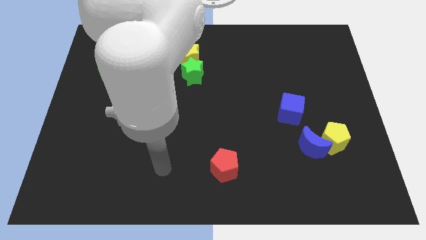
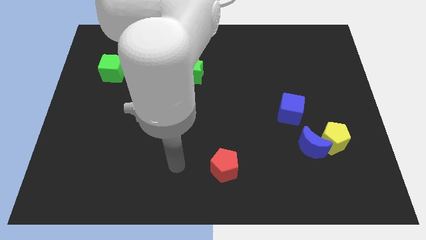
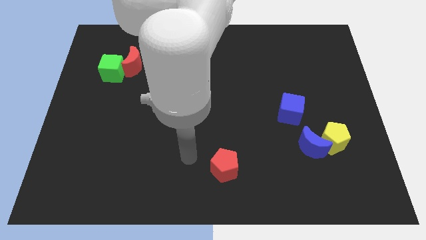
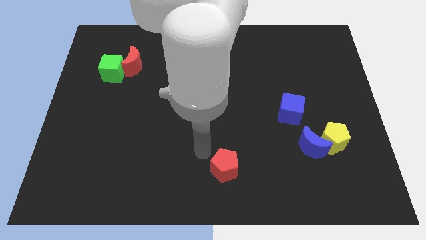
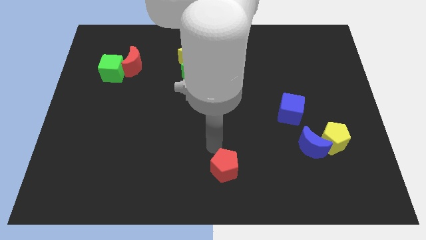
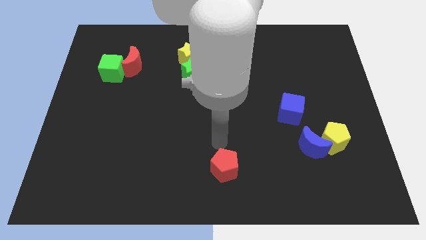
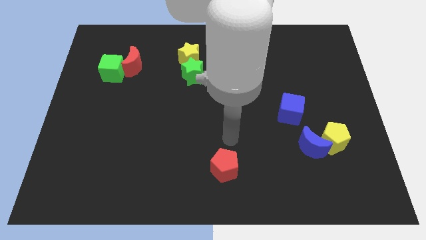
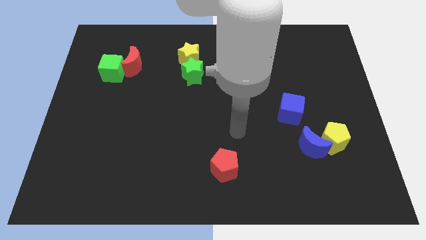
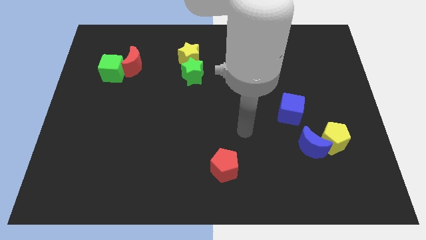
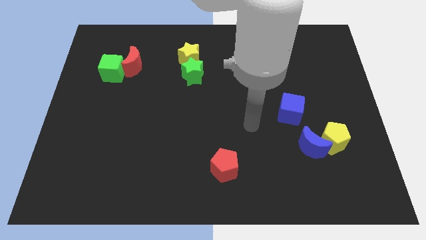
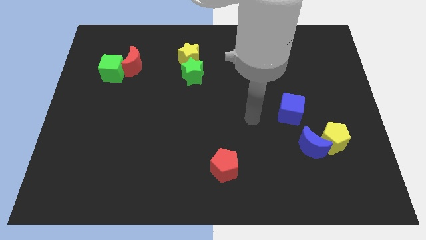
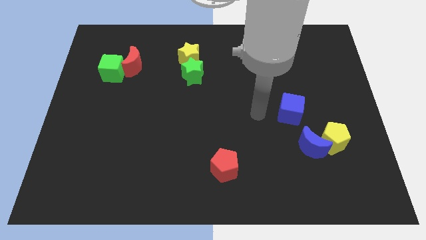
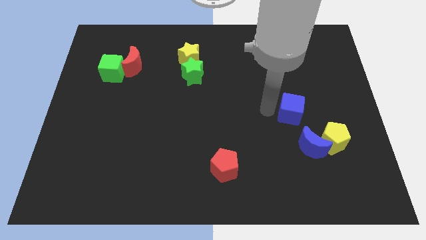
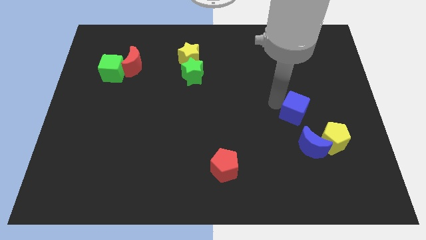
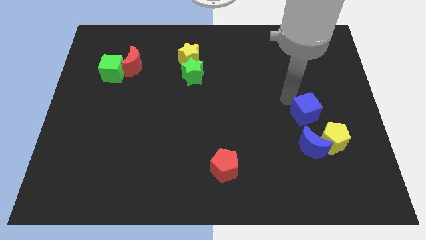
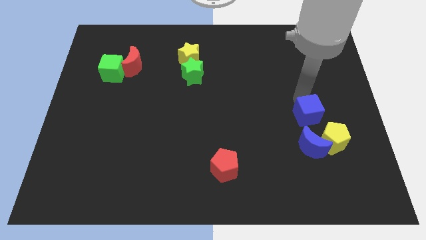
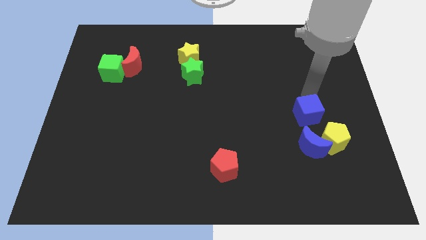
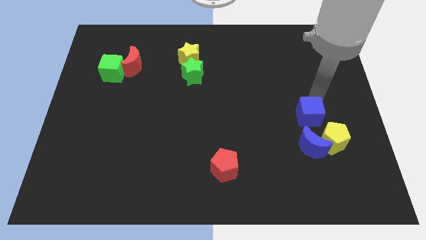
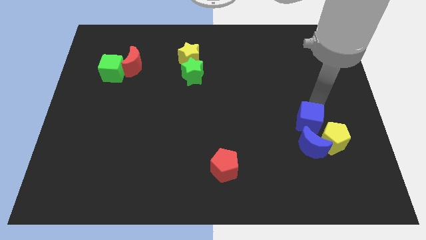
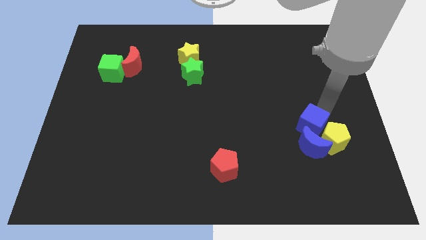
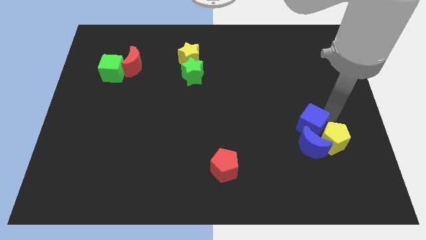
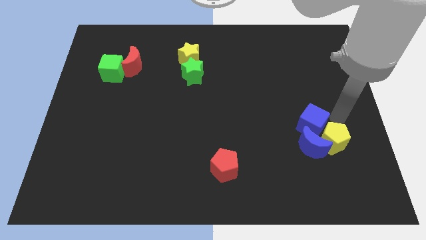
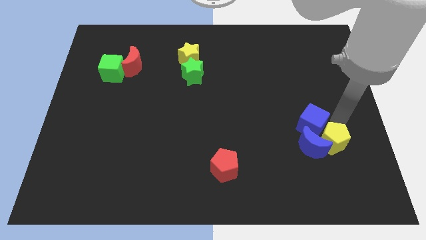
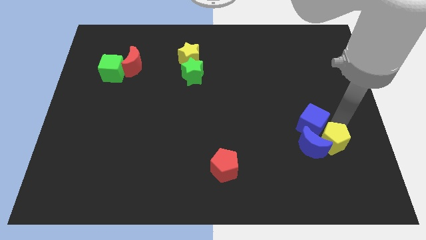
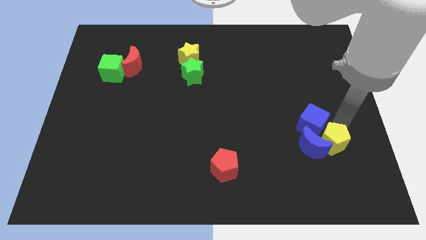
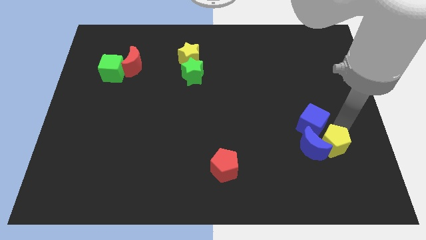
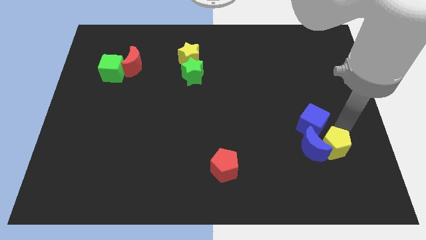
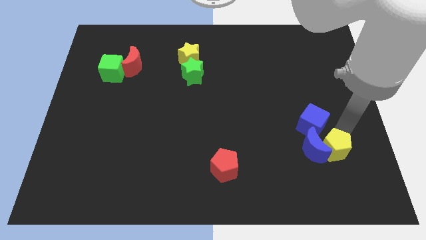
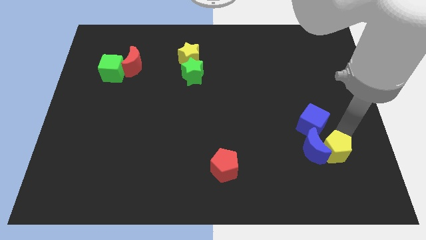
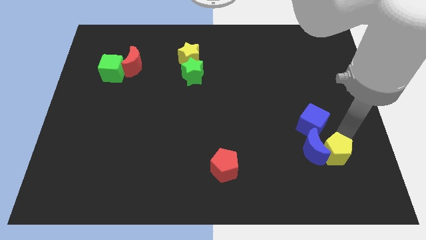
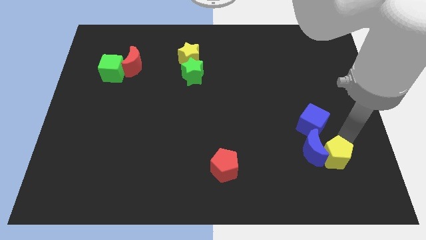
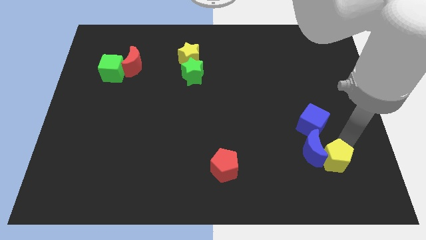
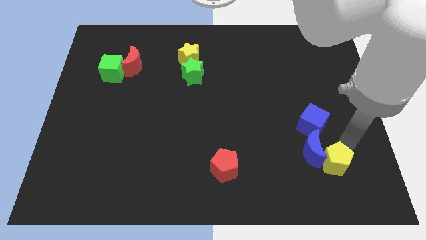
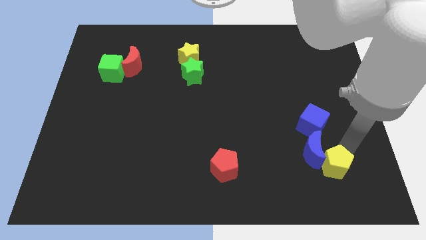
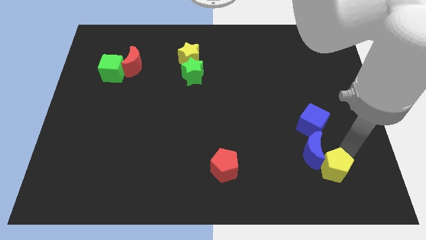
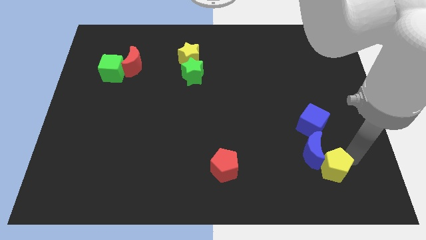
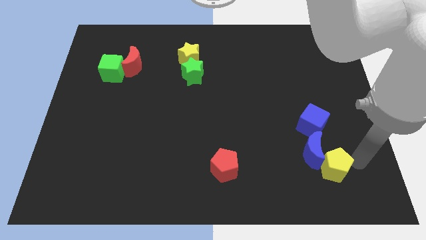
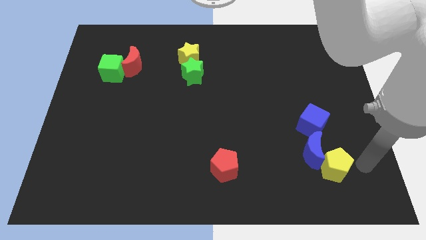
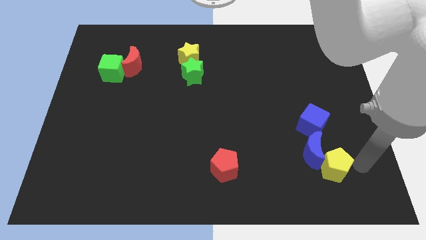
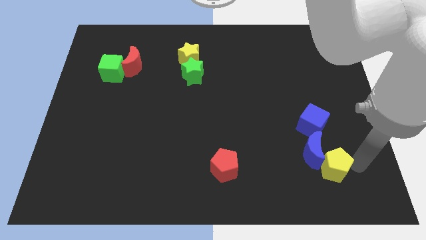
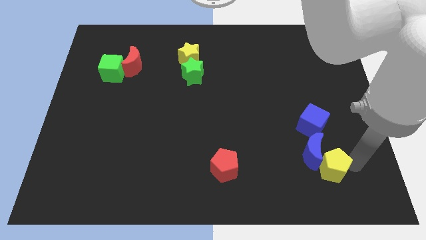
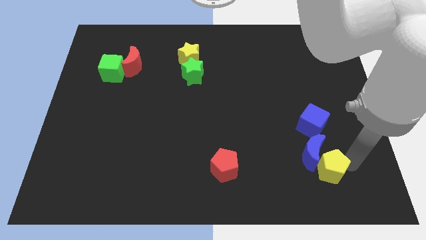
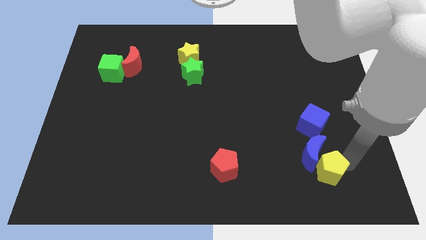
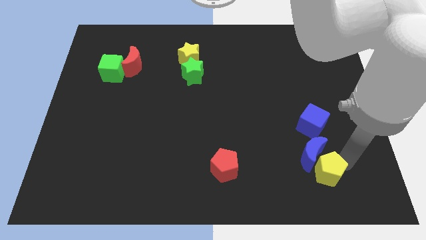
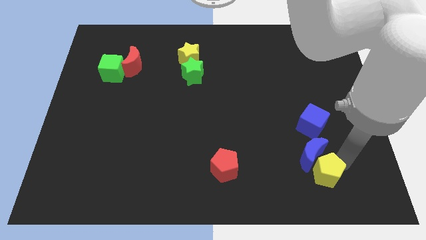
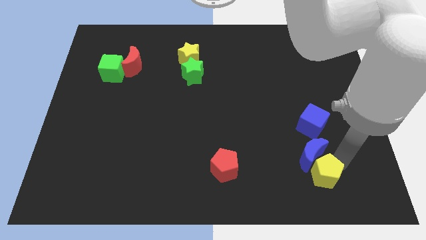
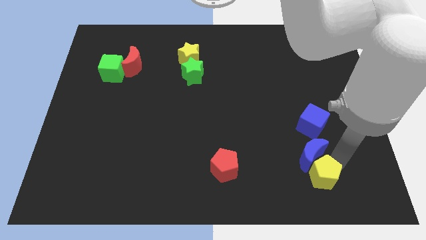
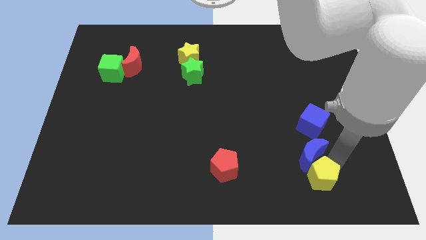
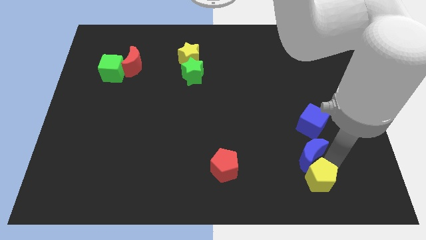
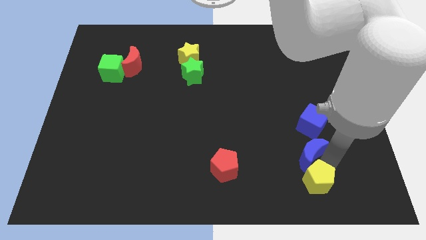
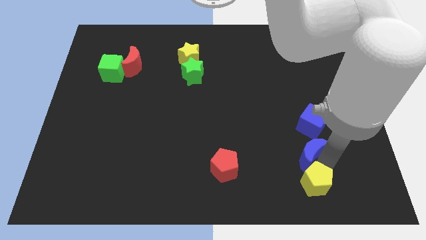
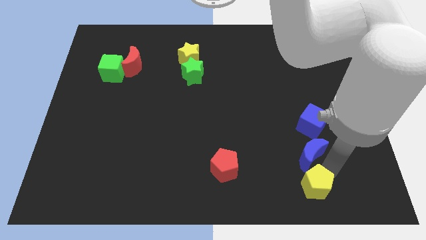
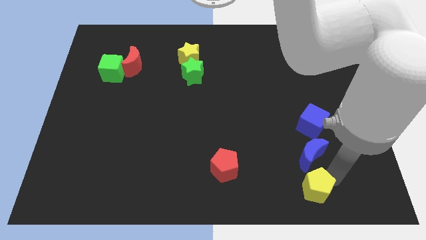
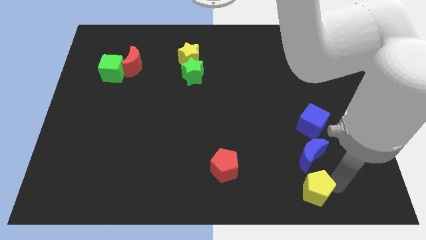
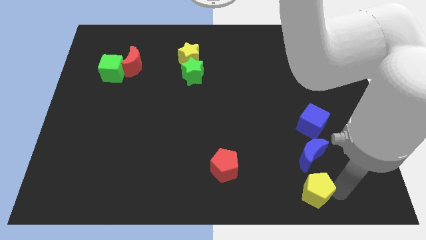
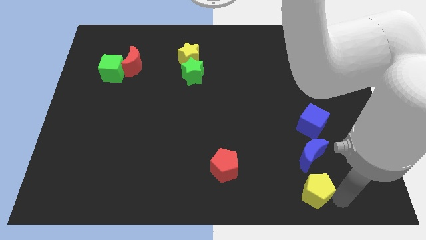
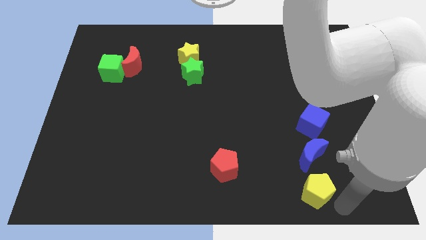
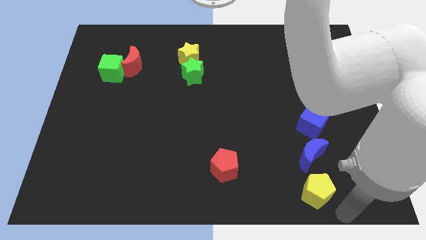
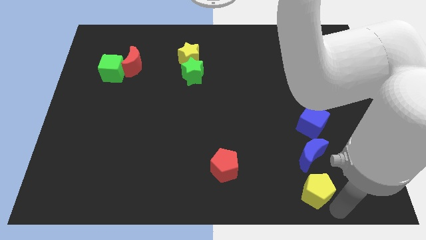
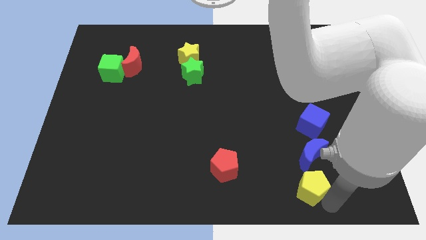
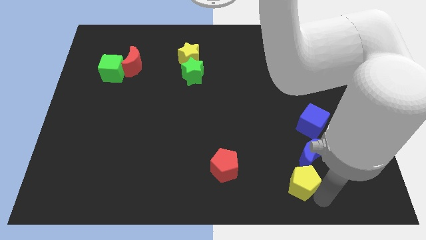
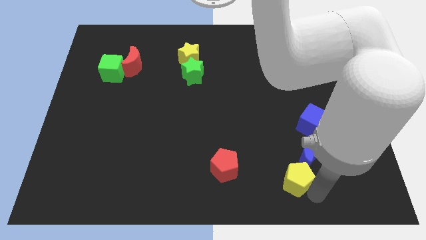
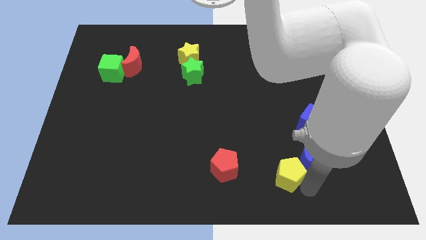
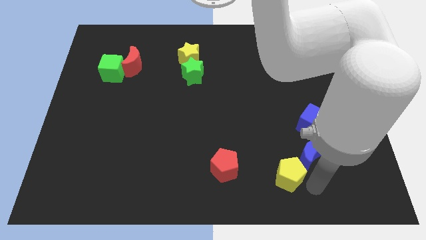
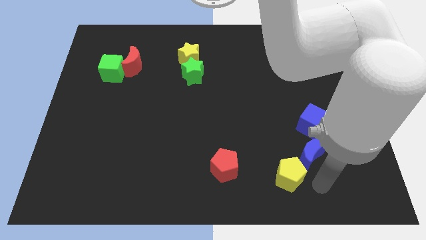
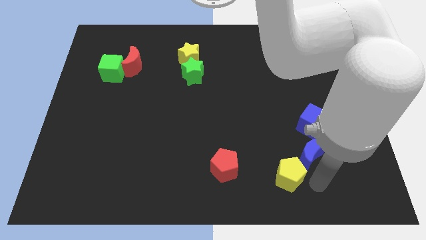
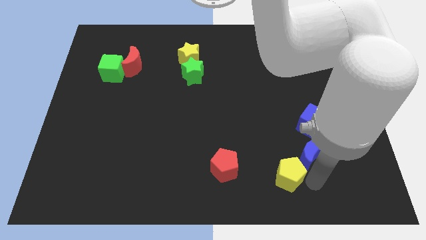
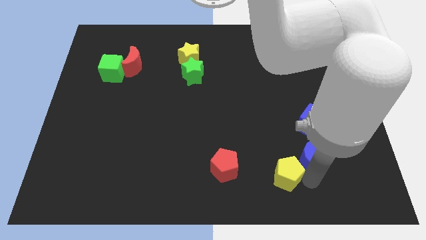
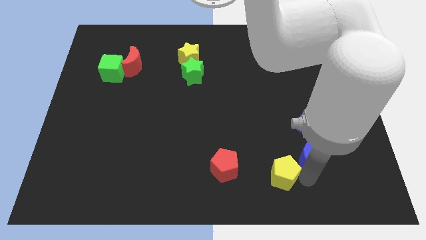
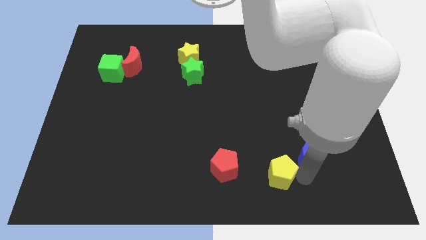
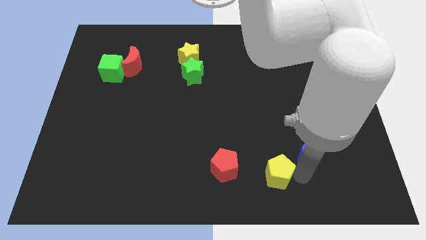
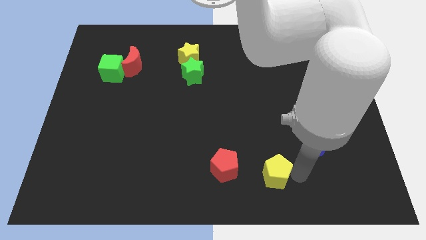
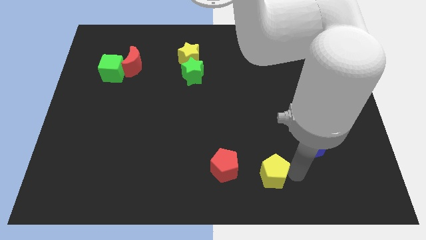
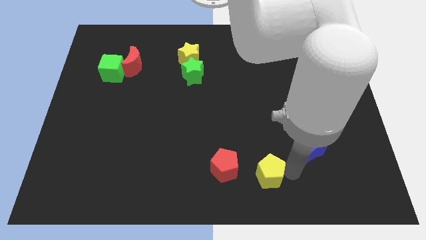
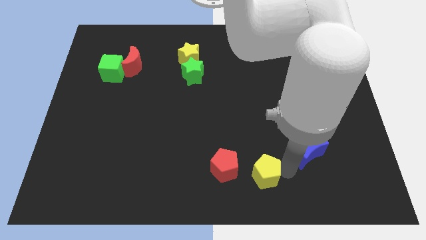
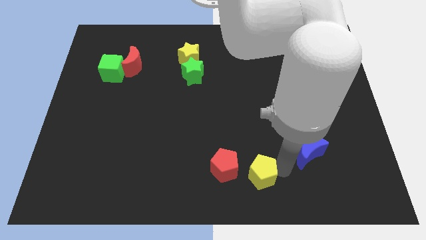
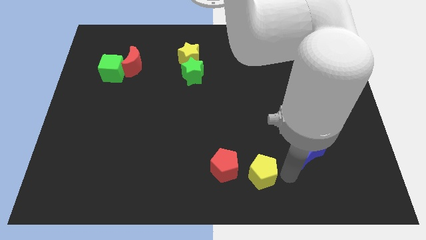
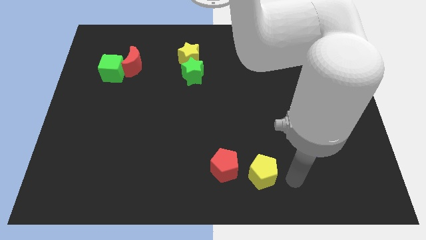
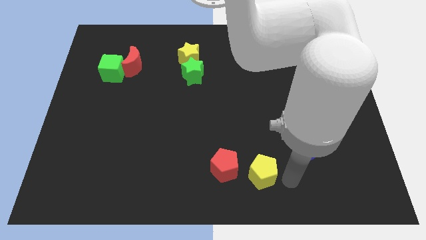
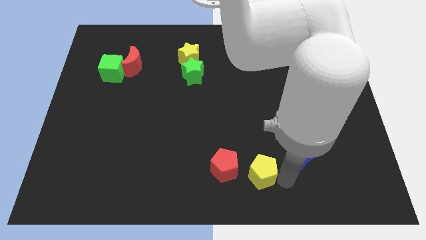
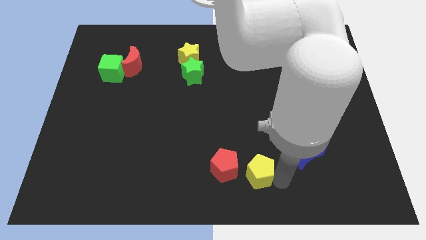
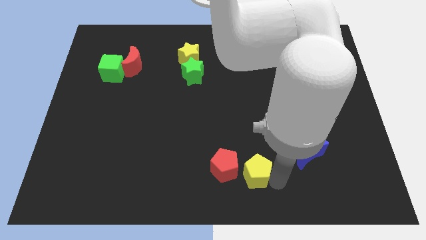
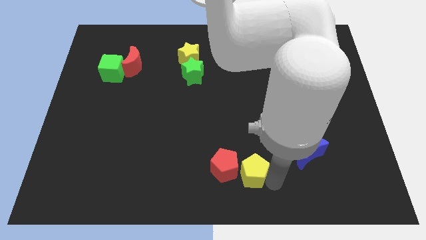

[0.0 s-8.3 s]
push the yellow pentagon next to the red pentagon
